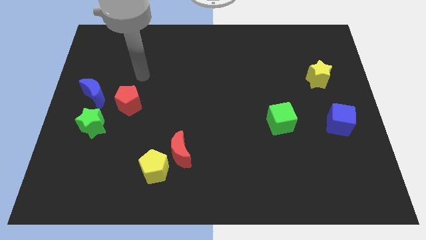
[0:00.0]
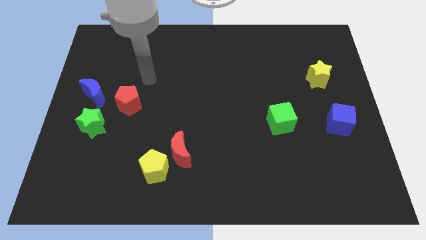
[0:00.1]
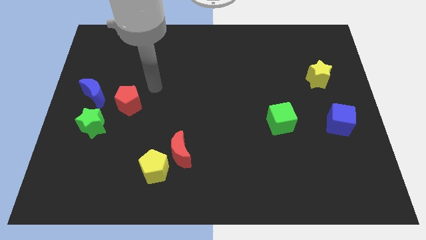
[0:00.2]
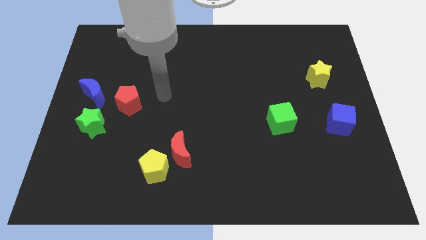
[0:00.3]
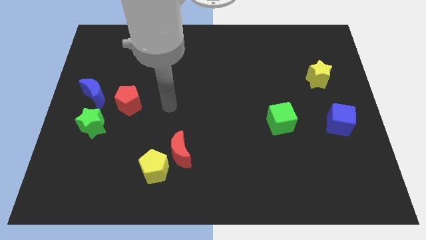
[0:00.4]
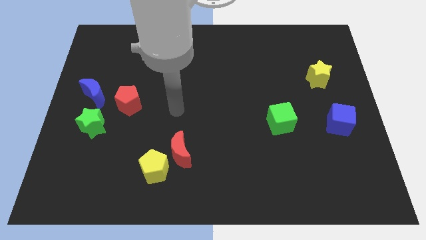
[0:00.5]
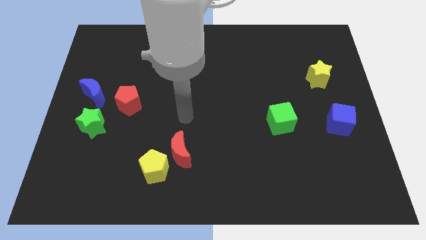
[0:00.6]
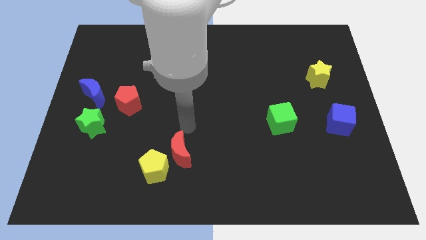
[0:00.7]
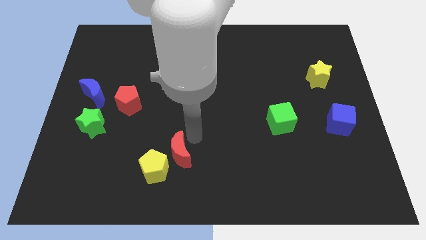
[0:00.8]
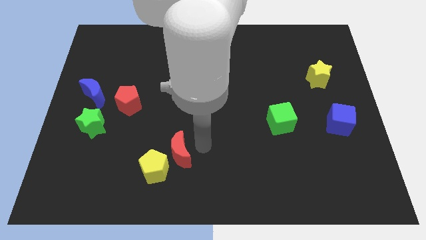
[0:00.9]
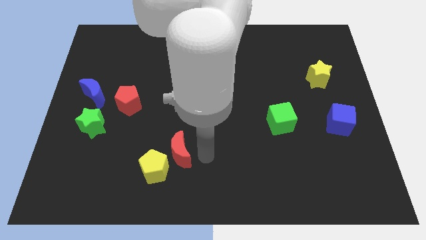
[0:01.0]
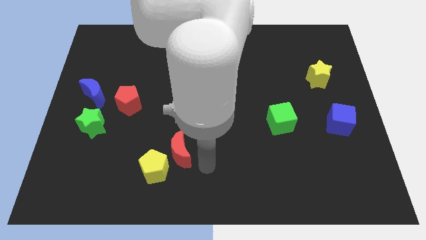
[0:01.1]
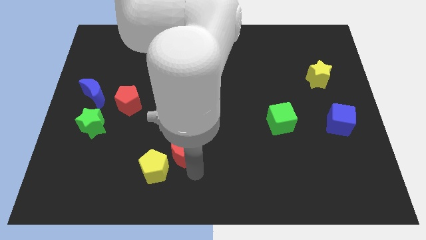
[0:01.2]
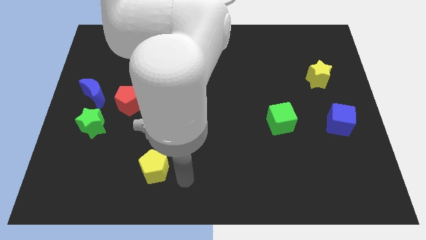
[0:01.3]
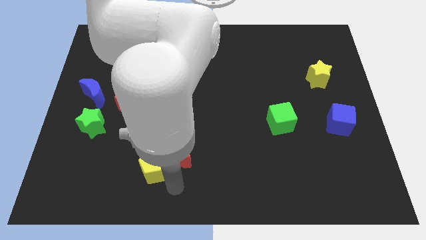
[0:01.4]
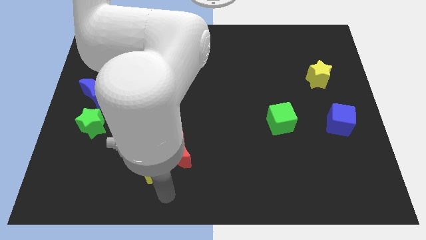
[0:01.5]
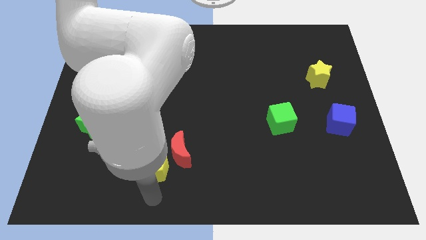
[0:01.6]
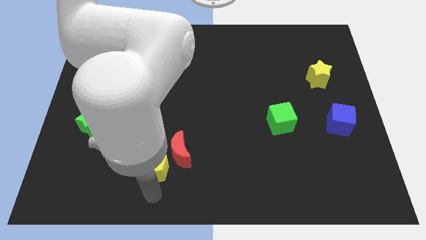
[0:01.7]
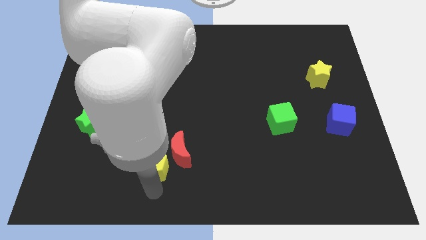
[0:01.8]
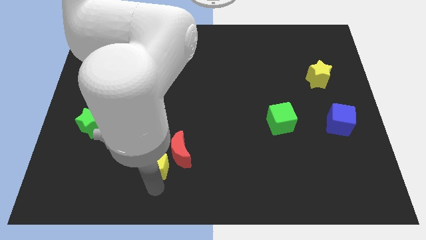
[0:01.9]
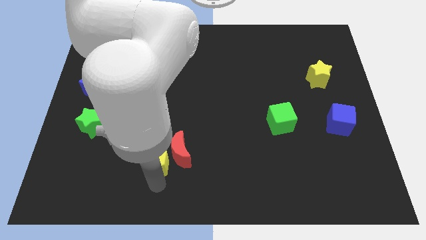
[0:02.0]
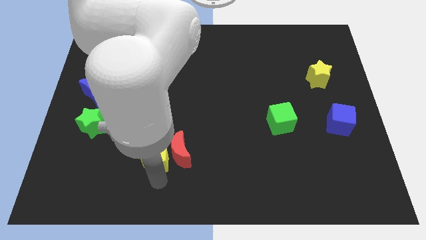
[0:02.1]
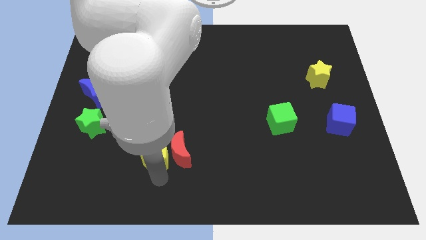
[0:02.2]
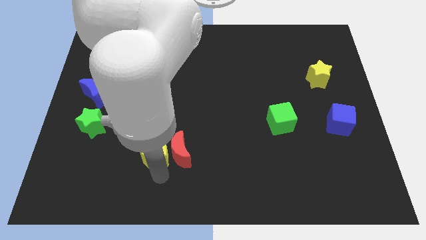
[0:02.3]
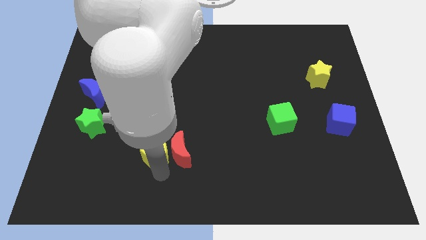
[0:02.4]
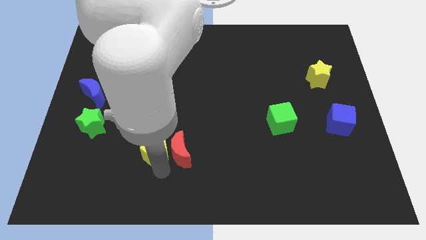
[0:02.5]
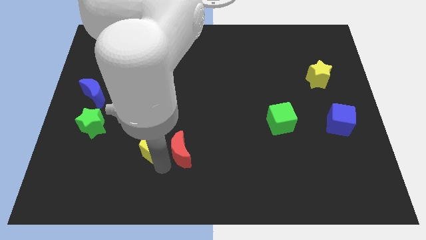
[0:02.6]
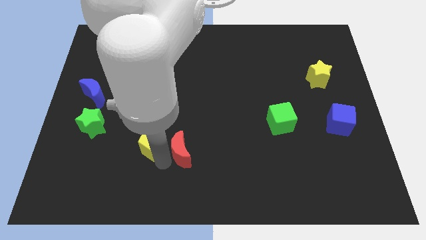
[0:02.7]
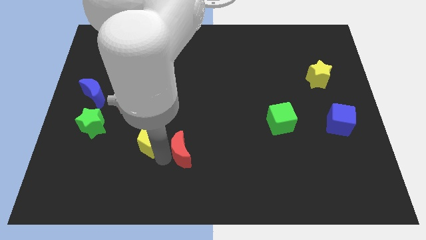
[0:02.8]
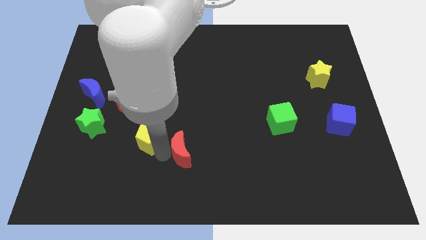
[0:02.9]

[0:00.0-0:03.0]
slide the yellow pentagon up somewhat

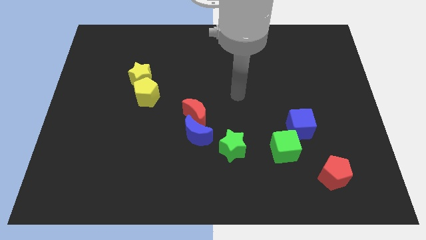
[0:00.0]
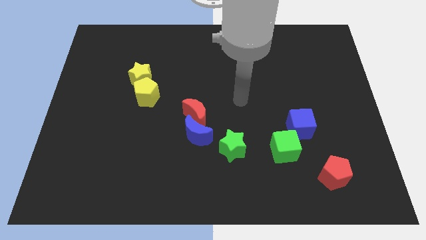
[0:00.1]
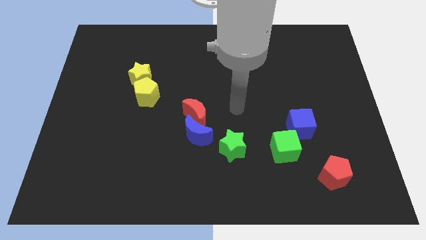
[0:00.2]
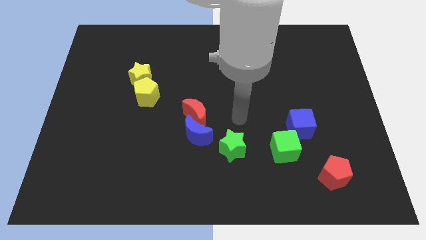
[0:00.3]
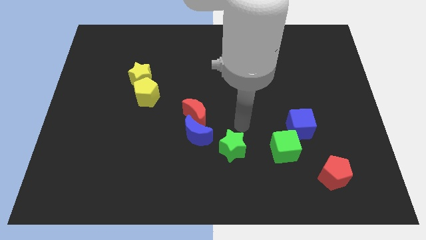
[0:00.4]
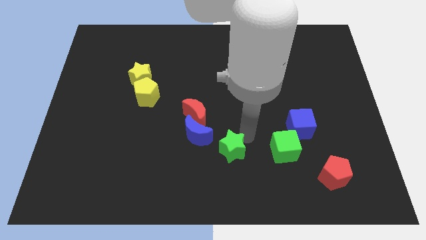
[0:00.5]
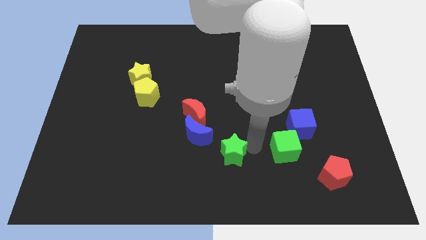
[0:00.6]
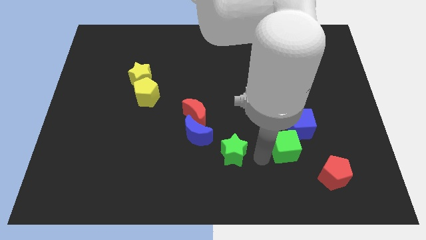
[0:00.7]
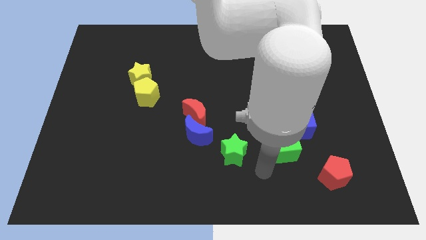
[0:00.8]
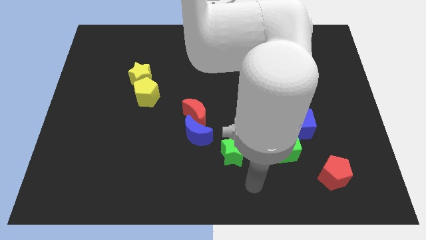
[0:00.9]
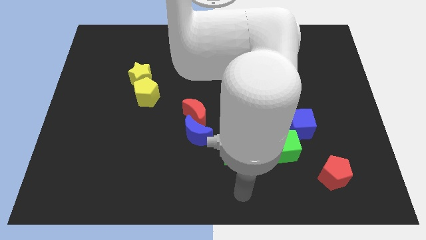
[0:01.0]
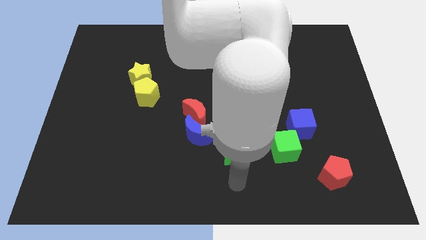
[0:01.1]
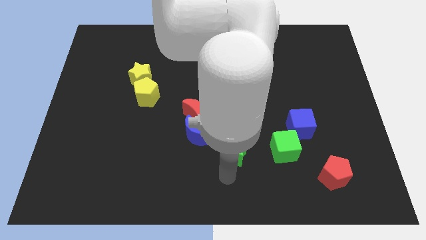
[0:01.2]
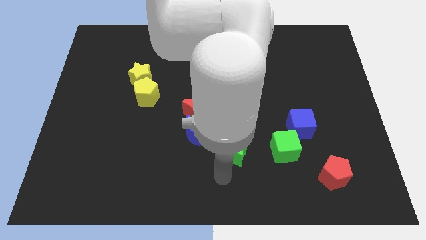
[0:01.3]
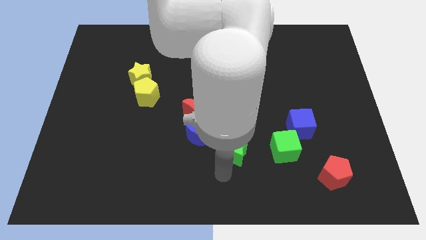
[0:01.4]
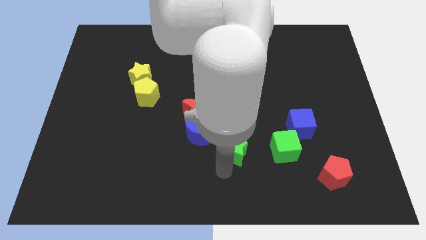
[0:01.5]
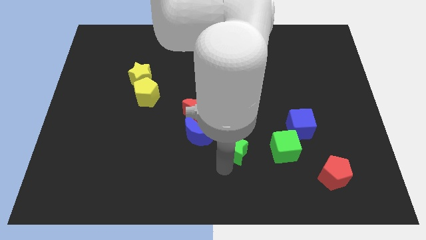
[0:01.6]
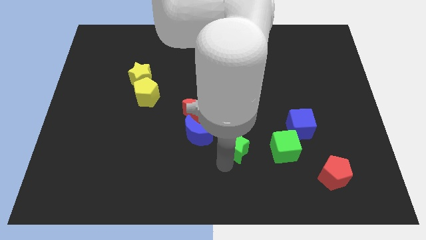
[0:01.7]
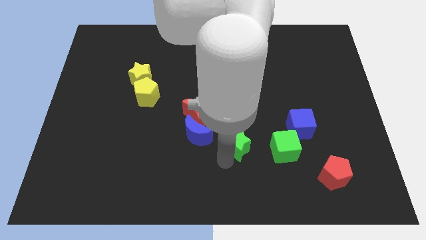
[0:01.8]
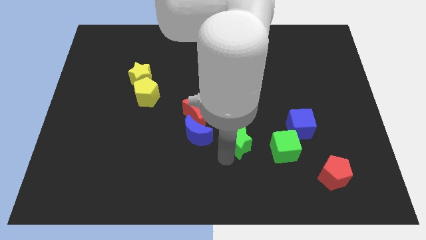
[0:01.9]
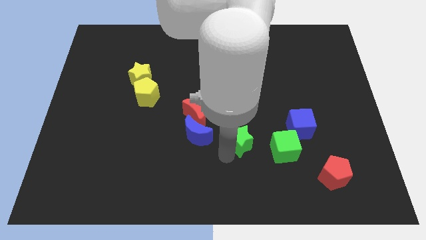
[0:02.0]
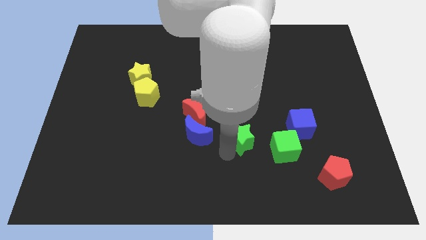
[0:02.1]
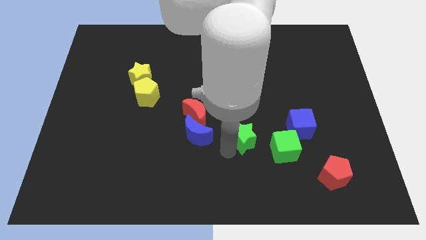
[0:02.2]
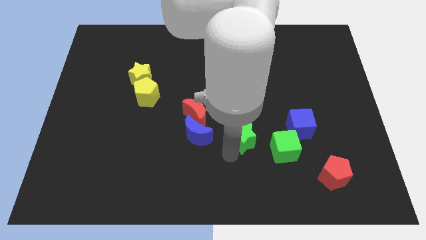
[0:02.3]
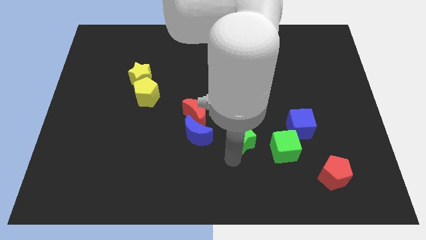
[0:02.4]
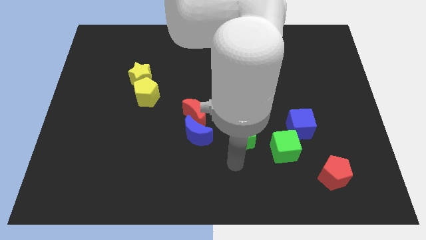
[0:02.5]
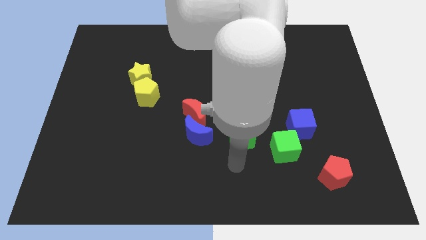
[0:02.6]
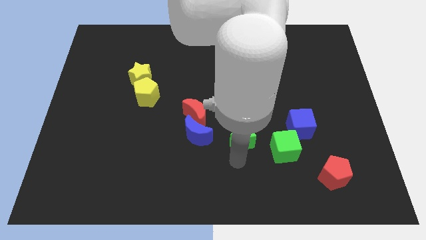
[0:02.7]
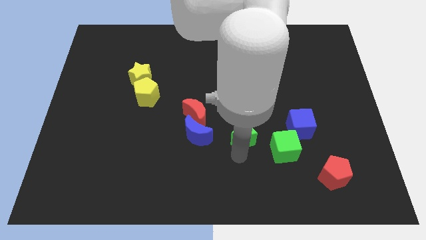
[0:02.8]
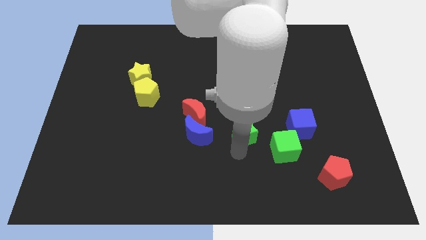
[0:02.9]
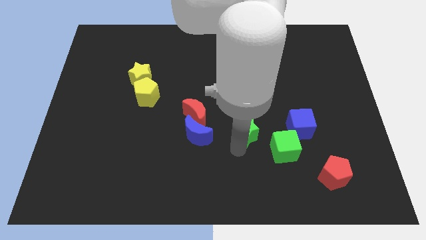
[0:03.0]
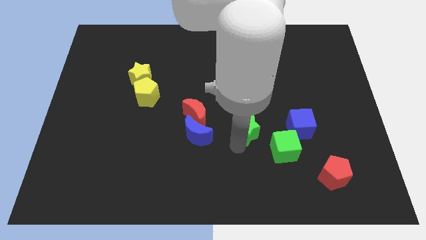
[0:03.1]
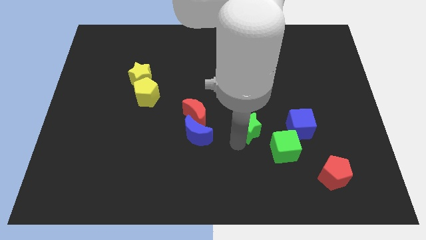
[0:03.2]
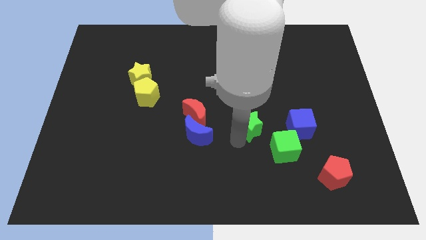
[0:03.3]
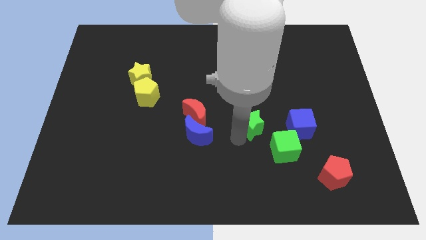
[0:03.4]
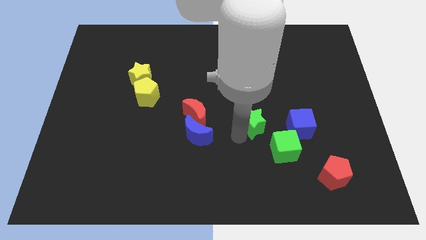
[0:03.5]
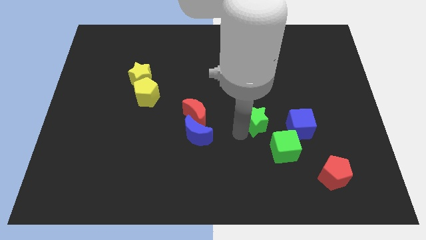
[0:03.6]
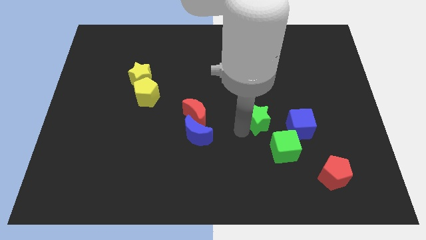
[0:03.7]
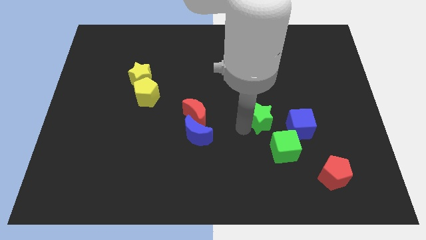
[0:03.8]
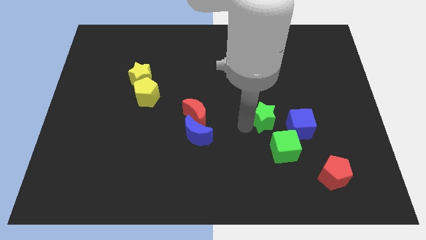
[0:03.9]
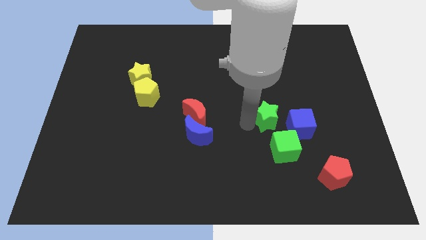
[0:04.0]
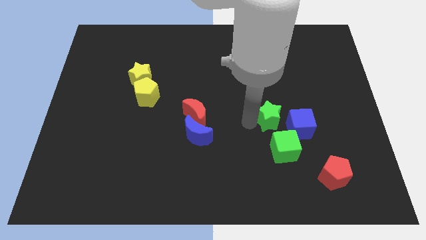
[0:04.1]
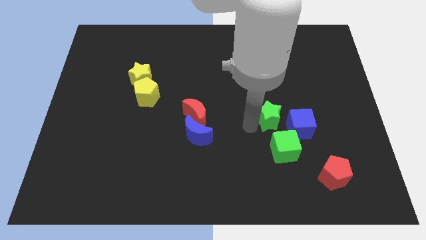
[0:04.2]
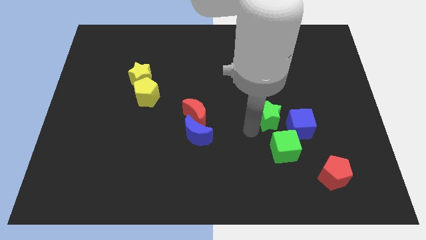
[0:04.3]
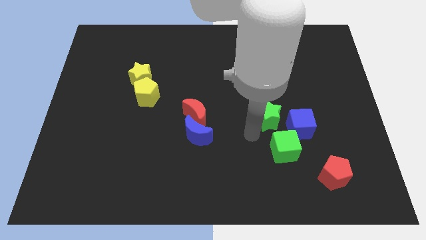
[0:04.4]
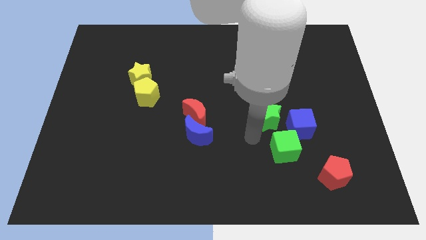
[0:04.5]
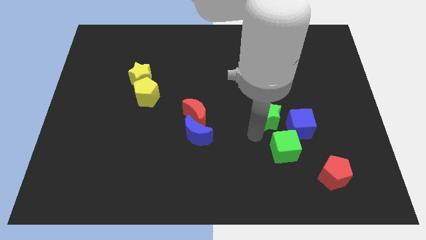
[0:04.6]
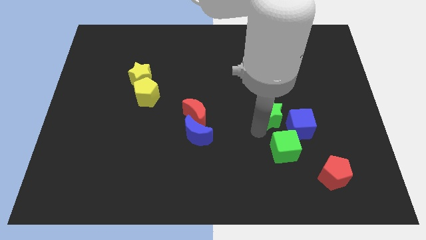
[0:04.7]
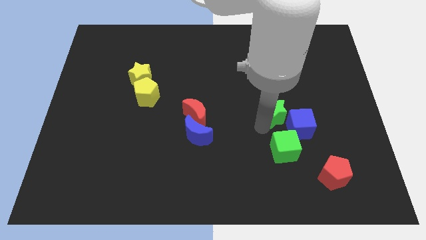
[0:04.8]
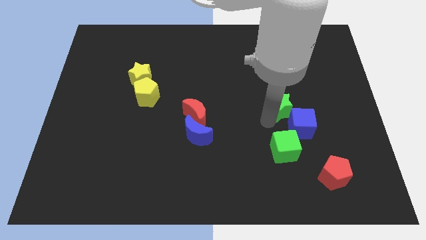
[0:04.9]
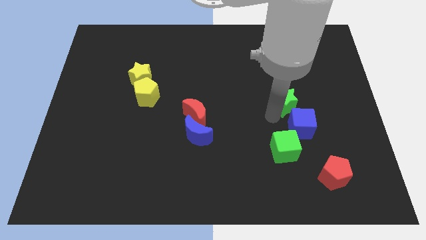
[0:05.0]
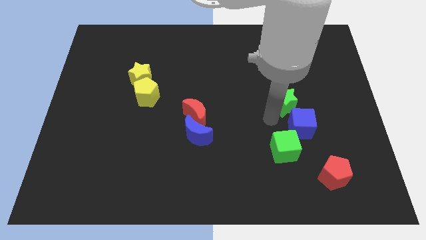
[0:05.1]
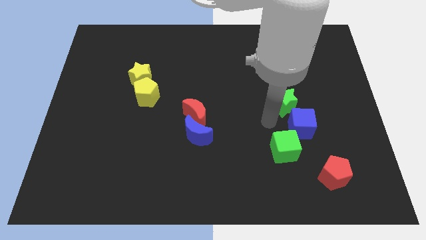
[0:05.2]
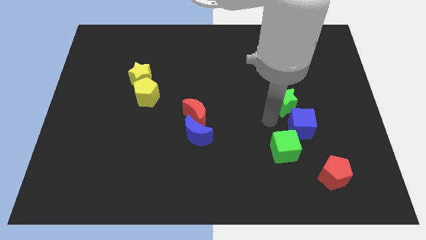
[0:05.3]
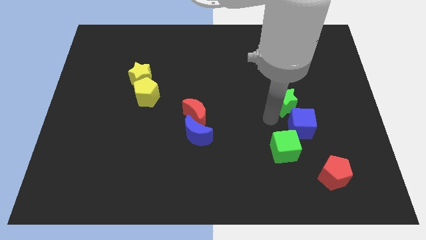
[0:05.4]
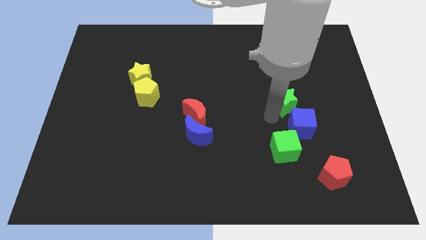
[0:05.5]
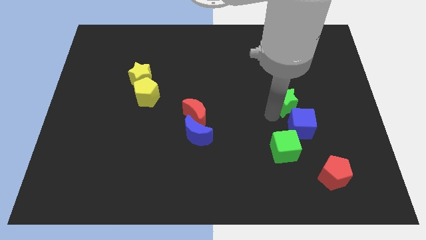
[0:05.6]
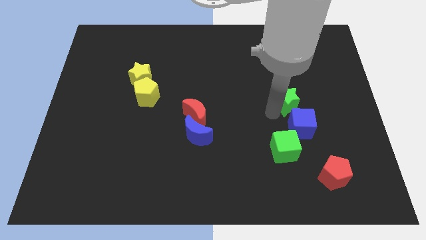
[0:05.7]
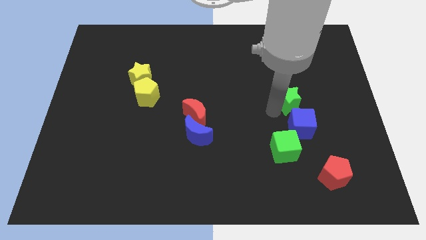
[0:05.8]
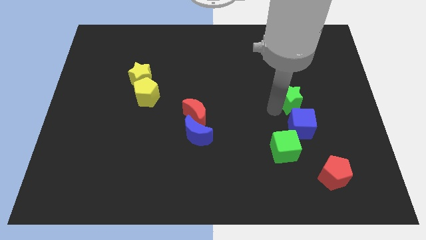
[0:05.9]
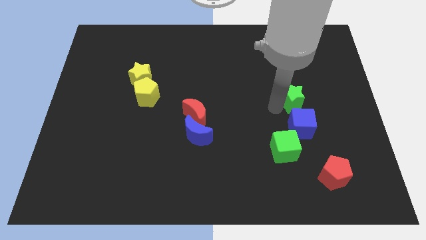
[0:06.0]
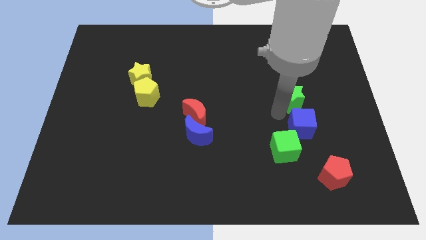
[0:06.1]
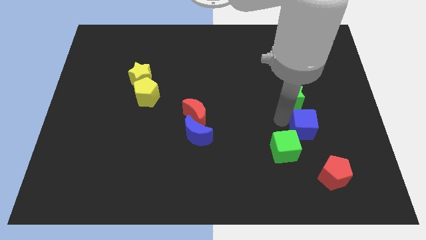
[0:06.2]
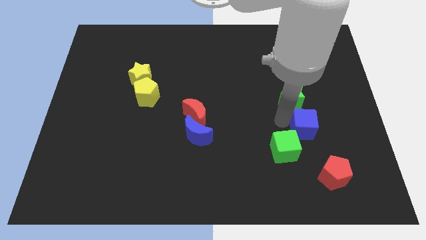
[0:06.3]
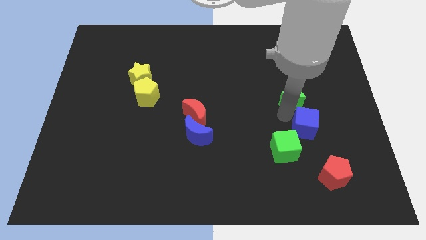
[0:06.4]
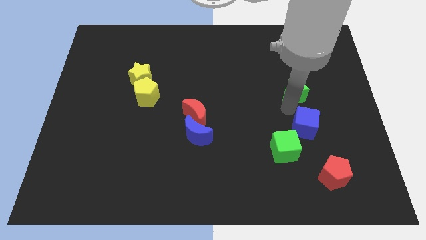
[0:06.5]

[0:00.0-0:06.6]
move the green star up and then to the right
